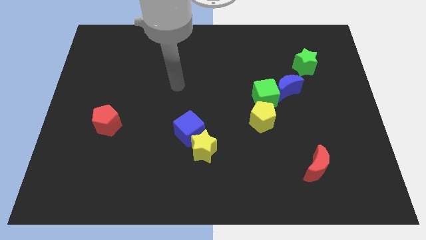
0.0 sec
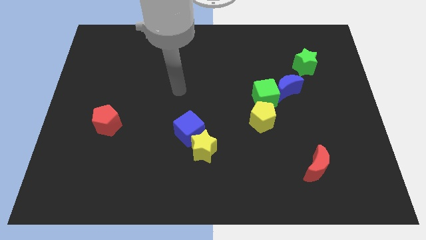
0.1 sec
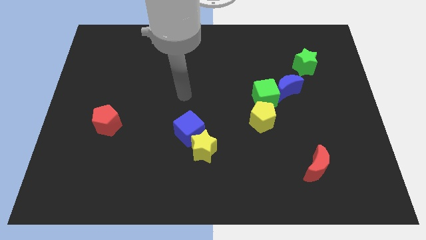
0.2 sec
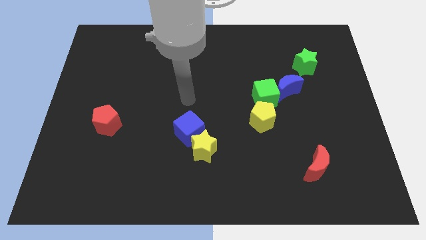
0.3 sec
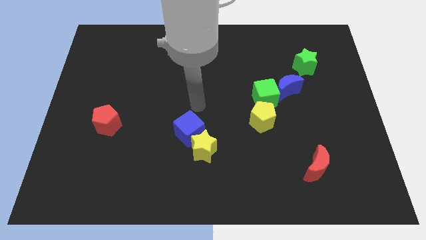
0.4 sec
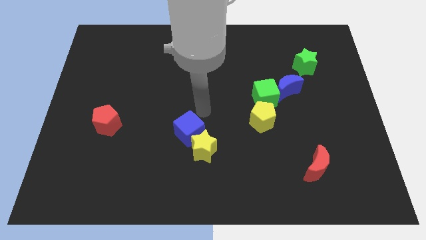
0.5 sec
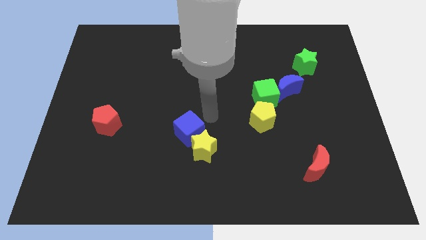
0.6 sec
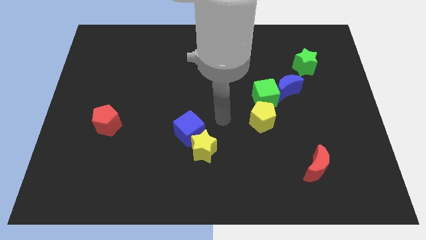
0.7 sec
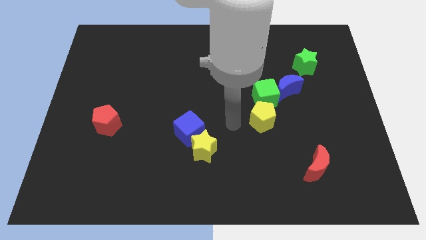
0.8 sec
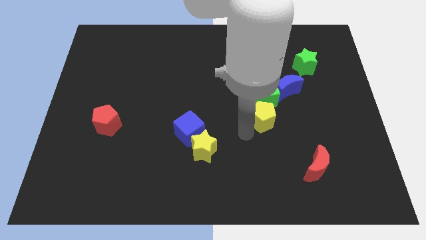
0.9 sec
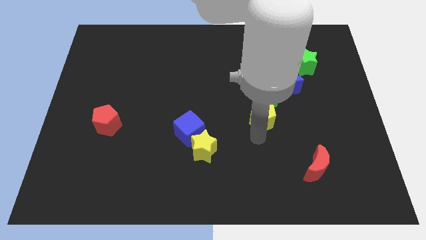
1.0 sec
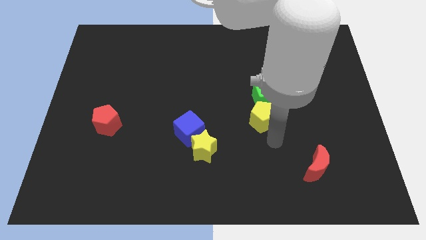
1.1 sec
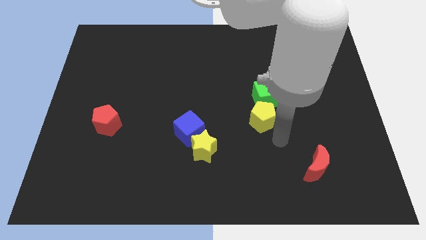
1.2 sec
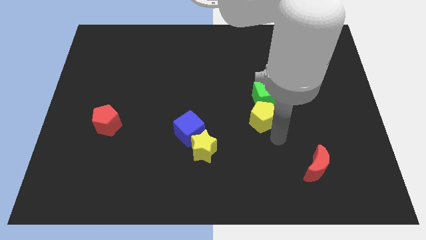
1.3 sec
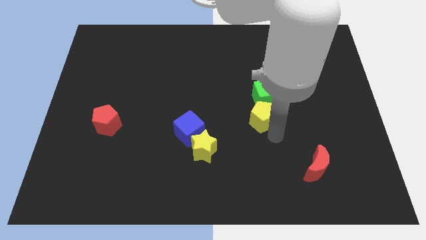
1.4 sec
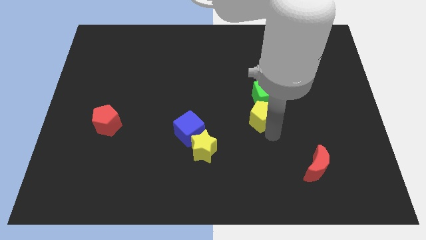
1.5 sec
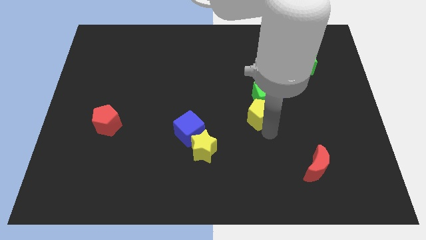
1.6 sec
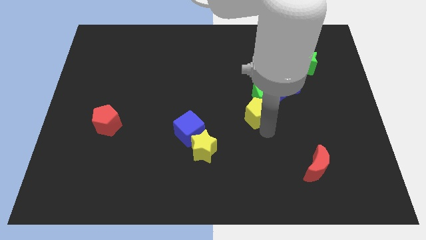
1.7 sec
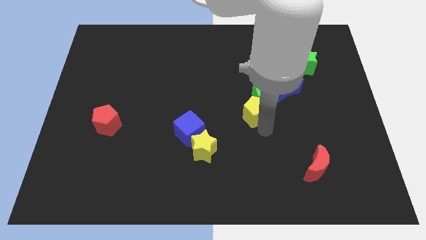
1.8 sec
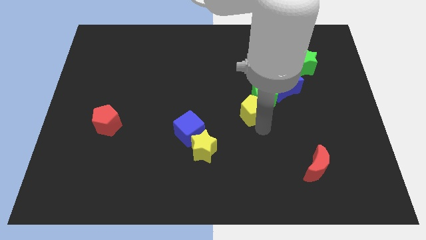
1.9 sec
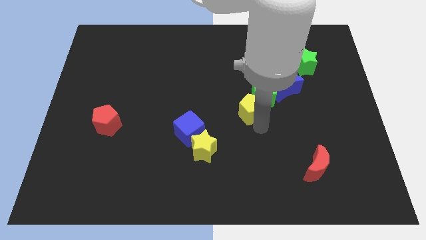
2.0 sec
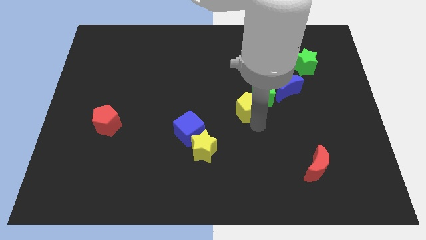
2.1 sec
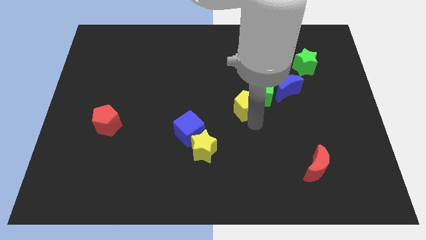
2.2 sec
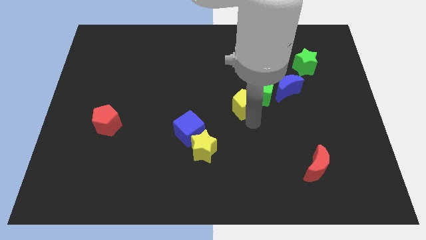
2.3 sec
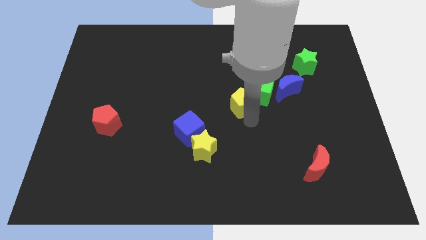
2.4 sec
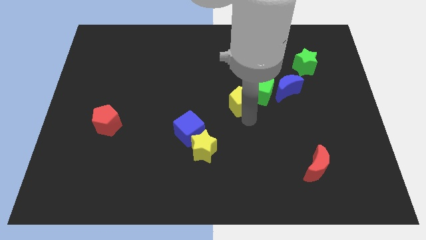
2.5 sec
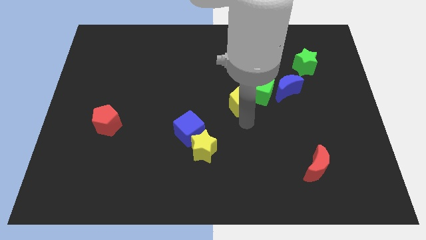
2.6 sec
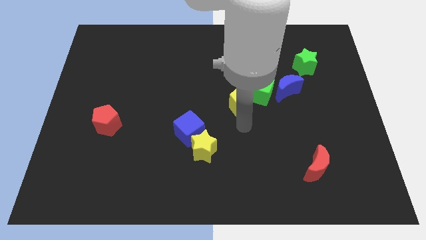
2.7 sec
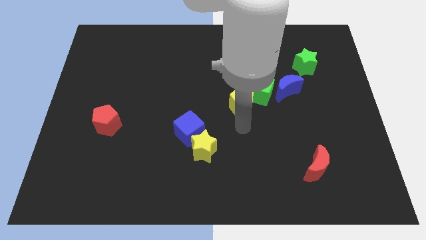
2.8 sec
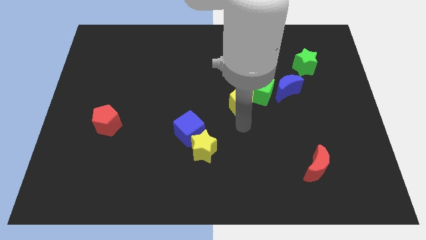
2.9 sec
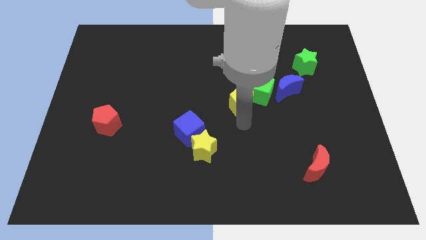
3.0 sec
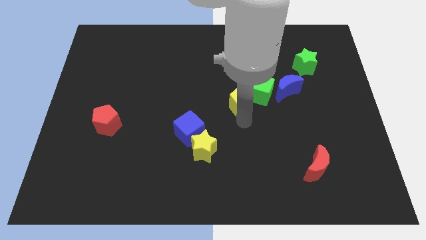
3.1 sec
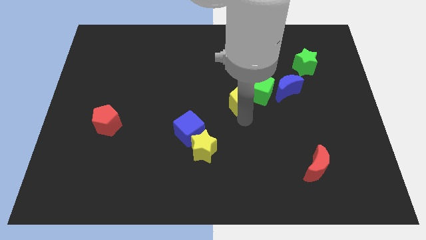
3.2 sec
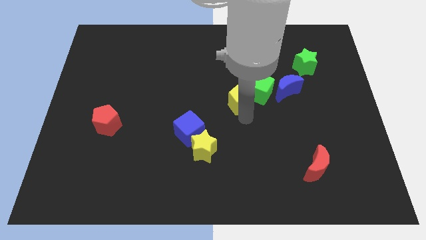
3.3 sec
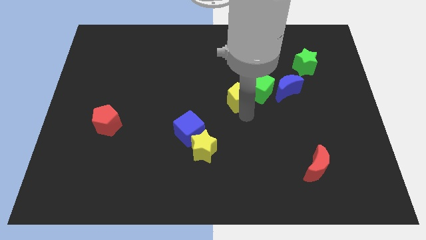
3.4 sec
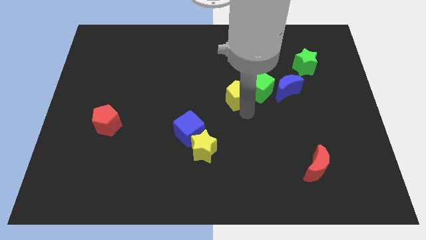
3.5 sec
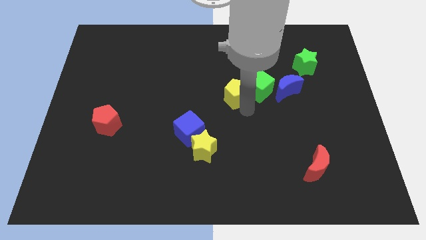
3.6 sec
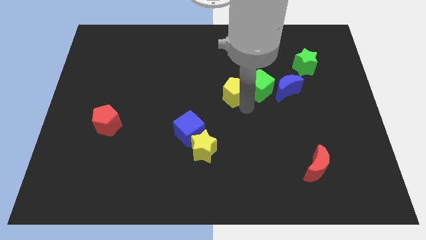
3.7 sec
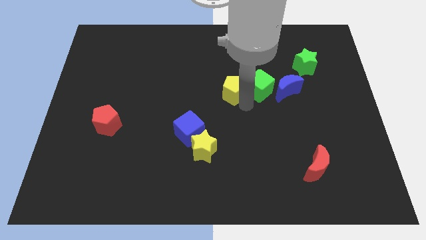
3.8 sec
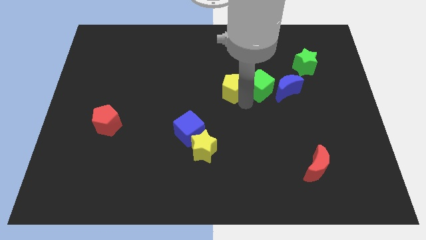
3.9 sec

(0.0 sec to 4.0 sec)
slightly move the yellow pentagon upwards

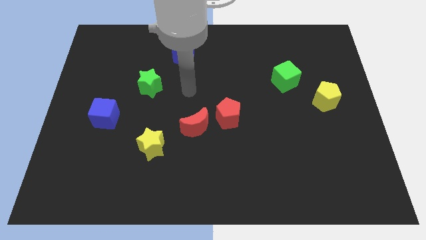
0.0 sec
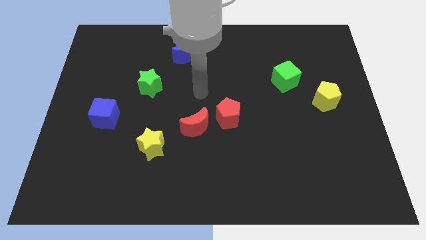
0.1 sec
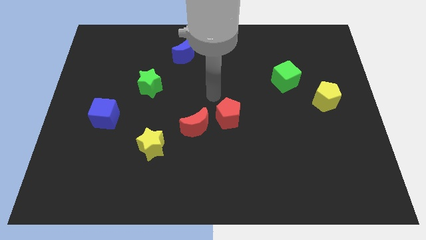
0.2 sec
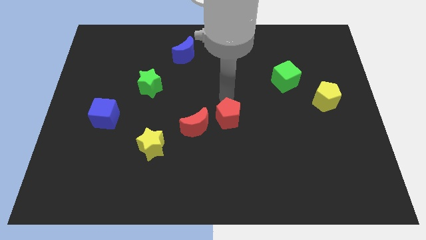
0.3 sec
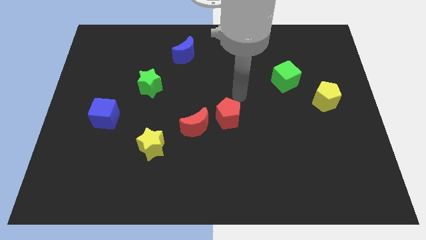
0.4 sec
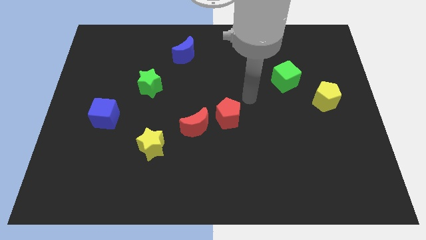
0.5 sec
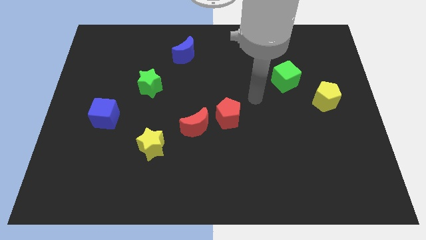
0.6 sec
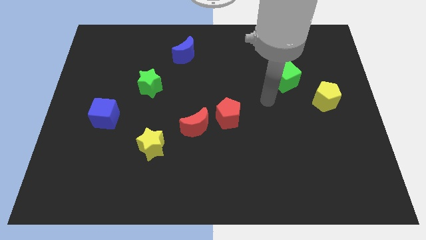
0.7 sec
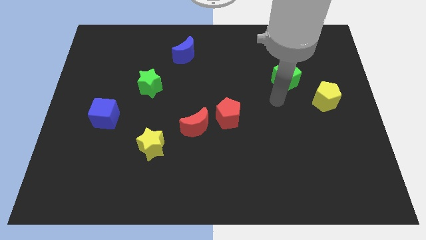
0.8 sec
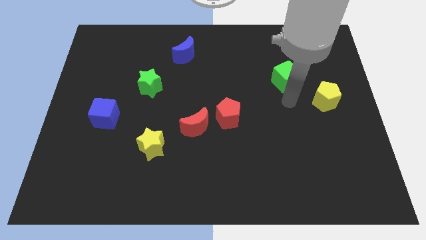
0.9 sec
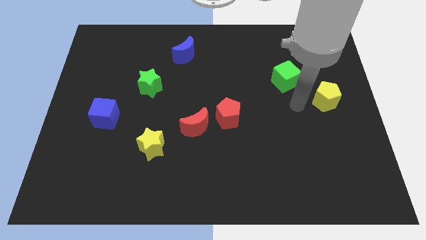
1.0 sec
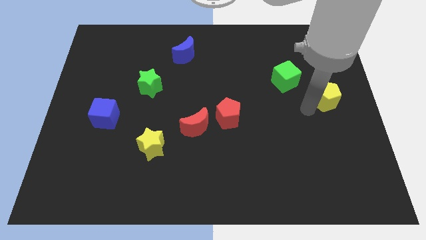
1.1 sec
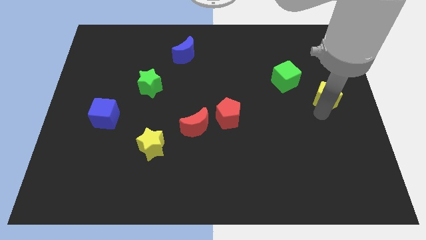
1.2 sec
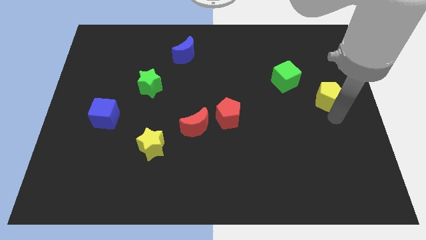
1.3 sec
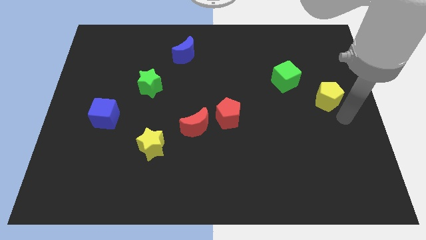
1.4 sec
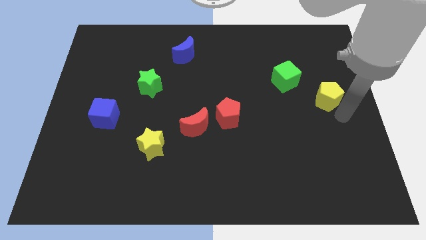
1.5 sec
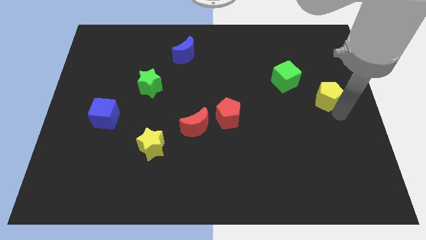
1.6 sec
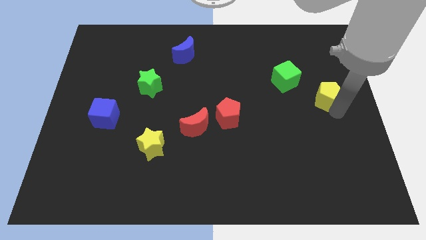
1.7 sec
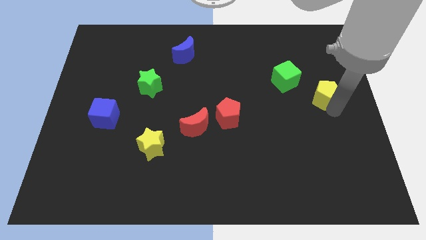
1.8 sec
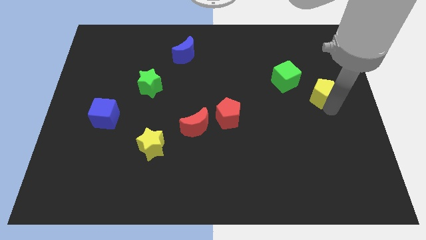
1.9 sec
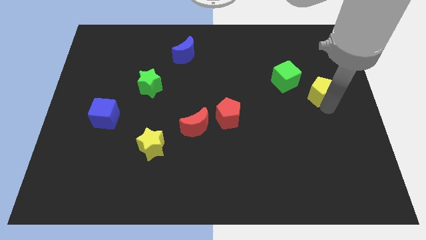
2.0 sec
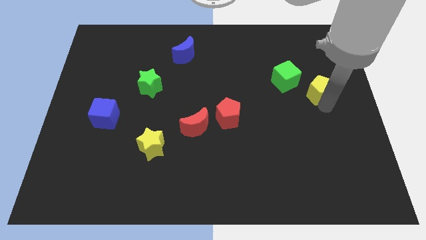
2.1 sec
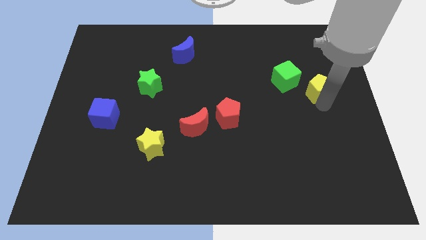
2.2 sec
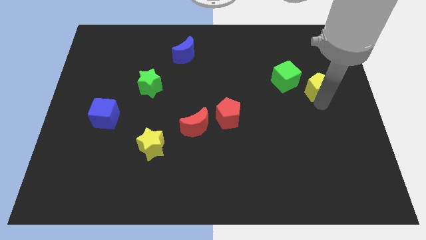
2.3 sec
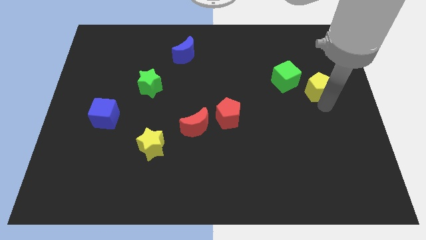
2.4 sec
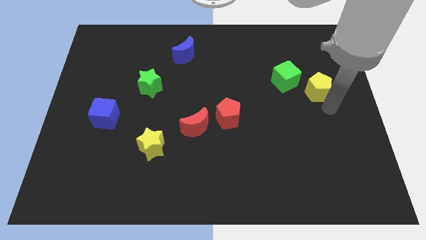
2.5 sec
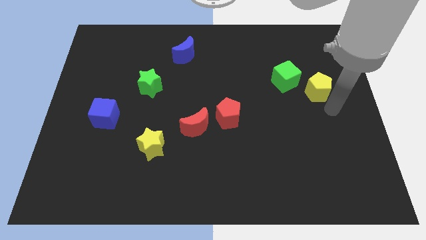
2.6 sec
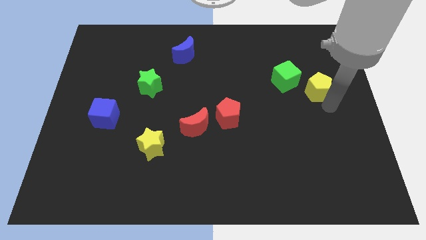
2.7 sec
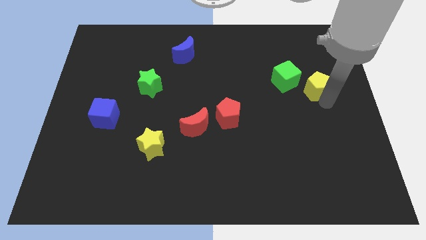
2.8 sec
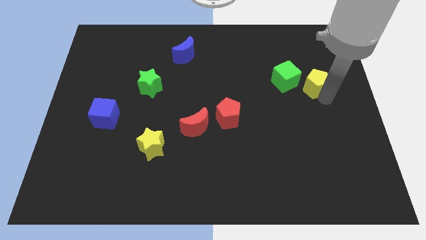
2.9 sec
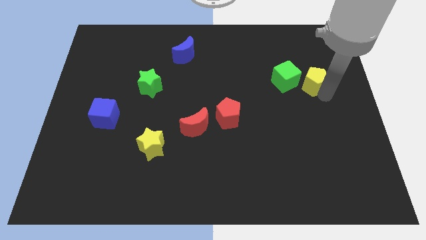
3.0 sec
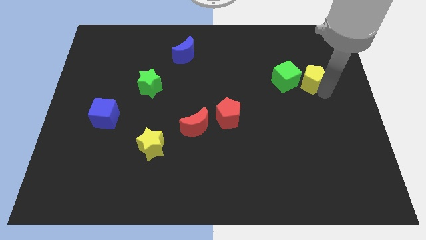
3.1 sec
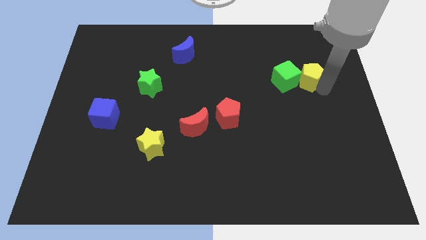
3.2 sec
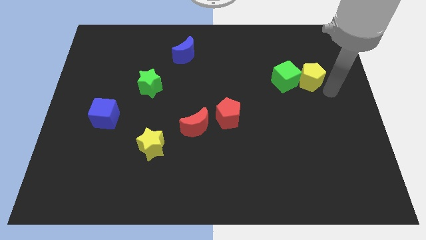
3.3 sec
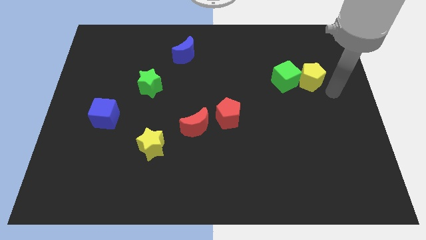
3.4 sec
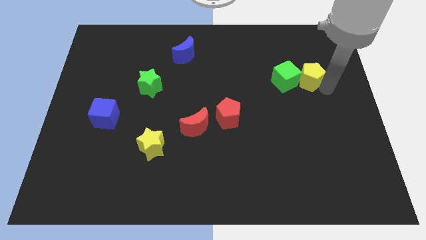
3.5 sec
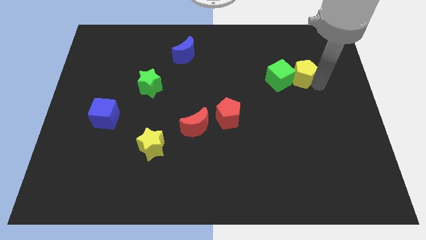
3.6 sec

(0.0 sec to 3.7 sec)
slightly move the yellow pentagon up and left diagonally

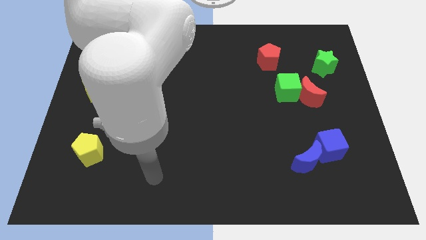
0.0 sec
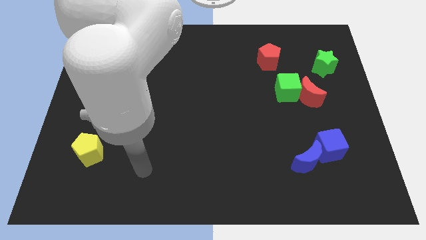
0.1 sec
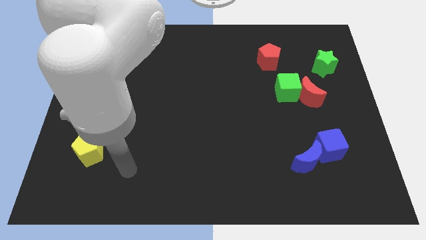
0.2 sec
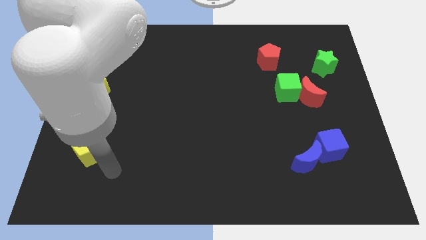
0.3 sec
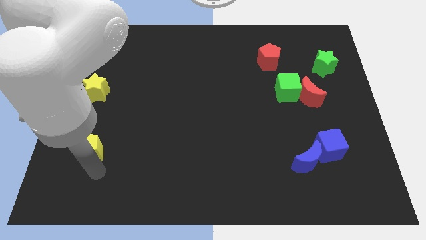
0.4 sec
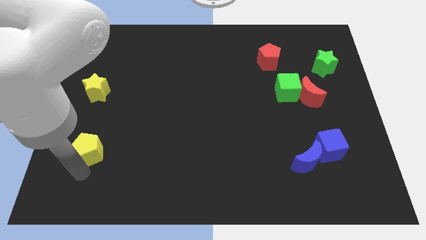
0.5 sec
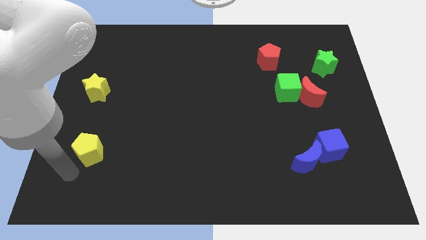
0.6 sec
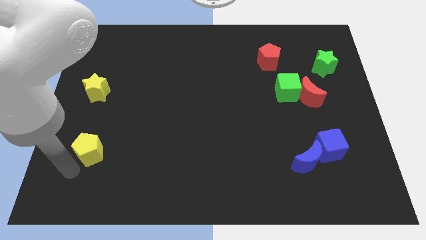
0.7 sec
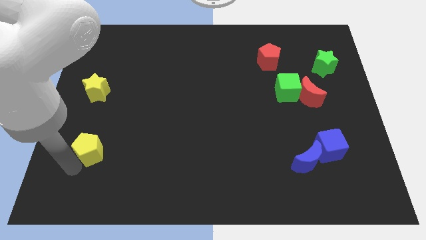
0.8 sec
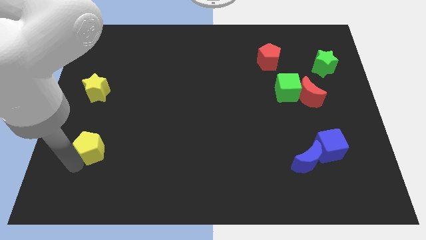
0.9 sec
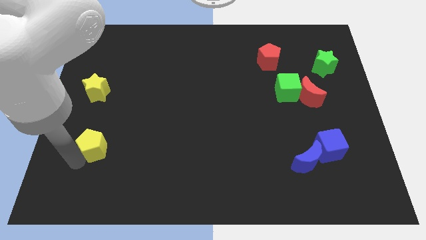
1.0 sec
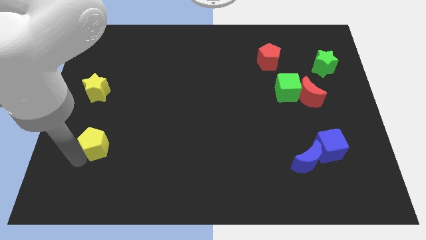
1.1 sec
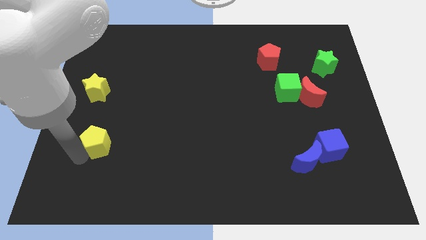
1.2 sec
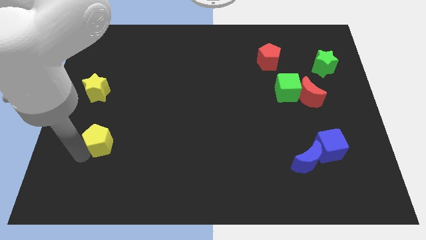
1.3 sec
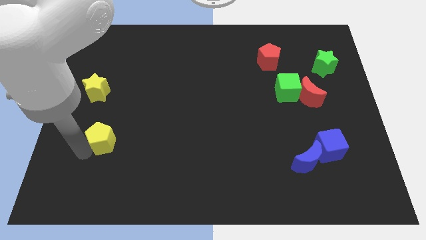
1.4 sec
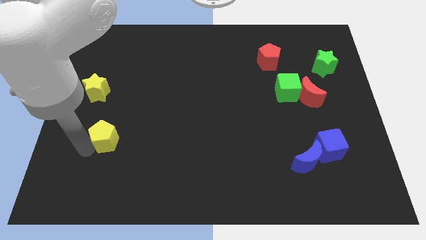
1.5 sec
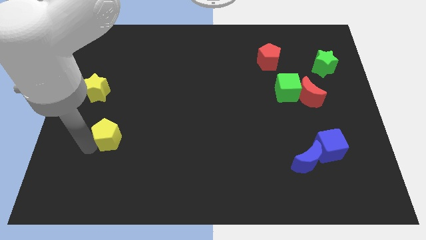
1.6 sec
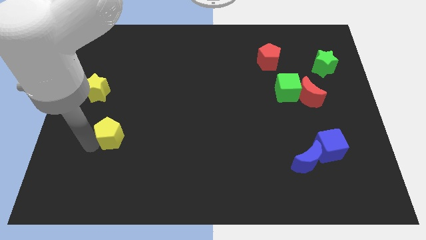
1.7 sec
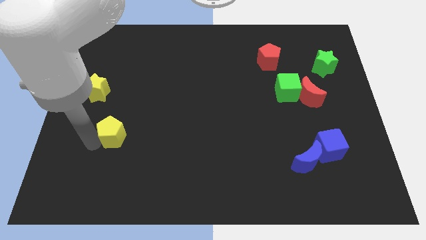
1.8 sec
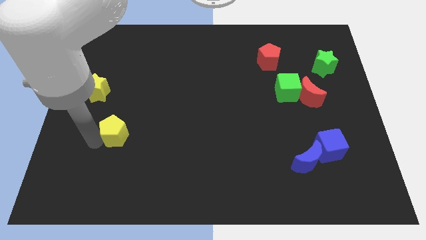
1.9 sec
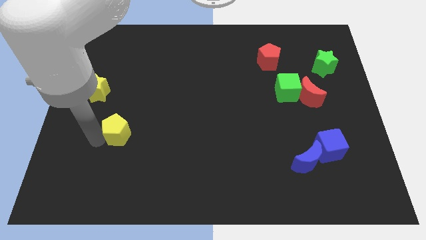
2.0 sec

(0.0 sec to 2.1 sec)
slightly move the yellow pentagon upwards and right
